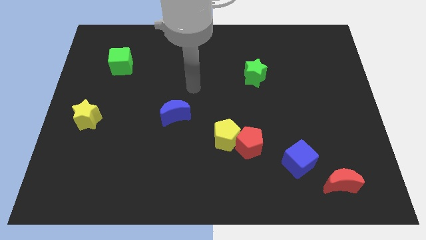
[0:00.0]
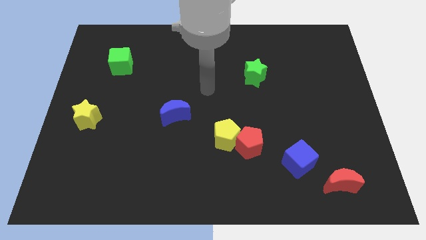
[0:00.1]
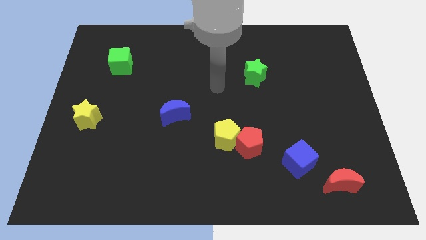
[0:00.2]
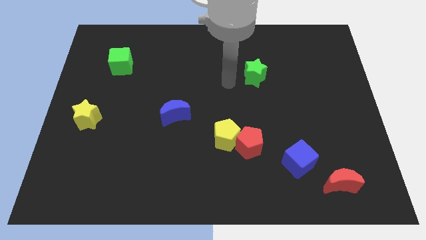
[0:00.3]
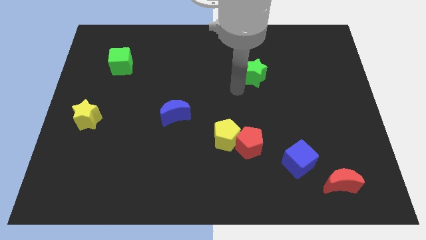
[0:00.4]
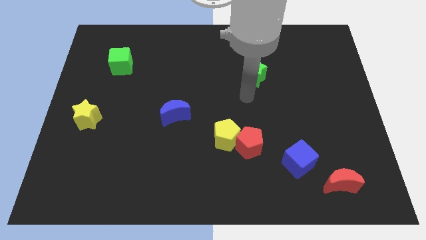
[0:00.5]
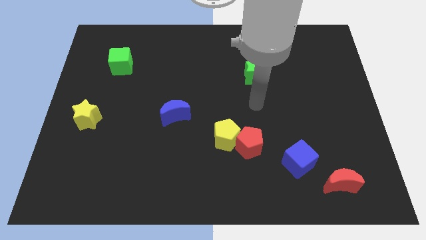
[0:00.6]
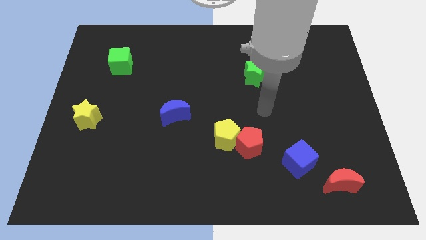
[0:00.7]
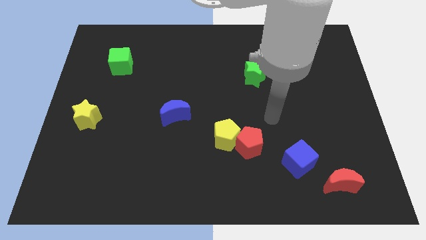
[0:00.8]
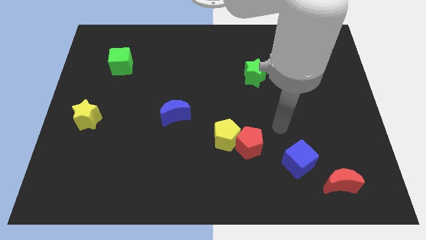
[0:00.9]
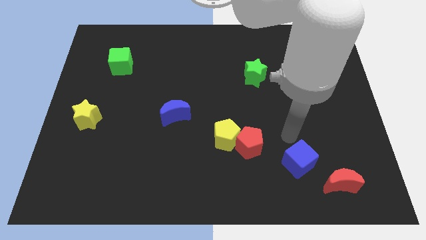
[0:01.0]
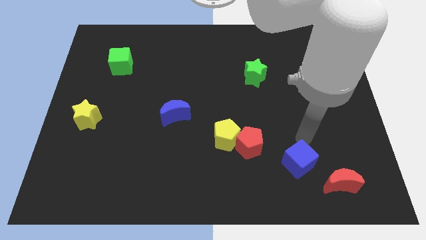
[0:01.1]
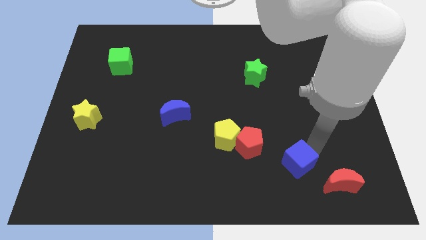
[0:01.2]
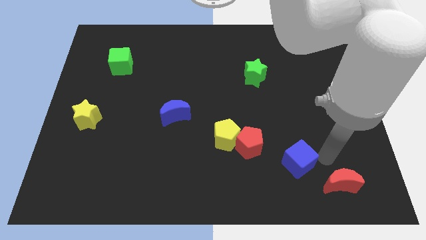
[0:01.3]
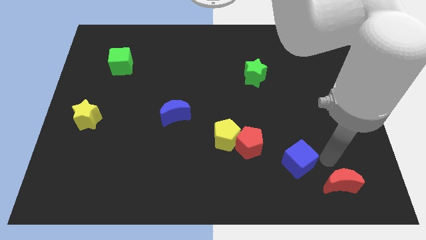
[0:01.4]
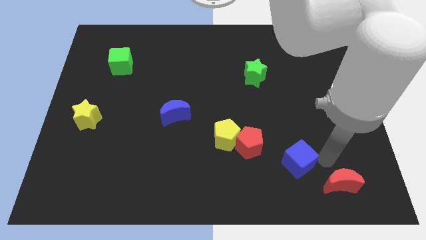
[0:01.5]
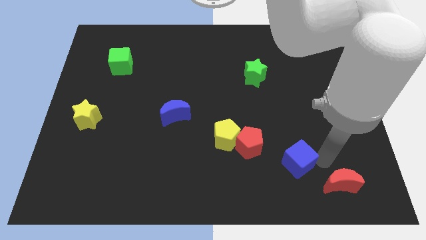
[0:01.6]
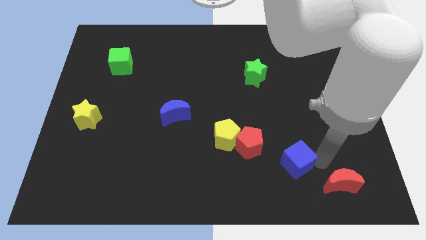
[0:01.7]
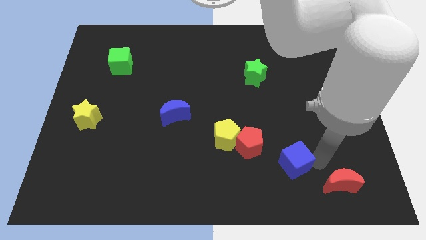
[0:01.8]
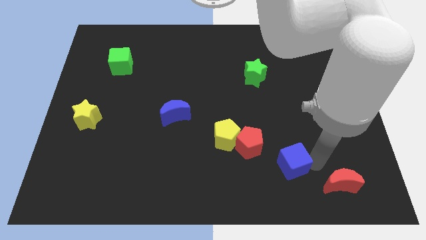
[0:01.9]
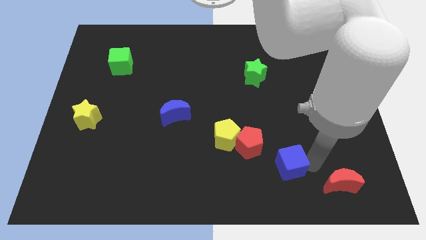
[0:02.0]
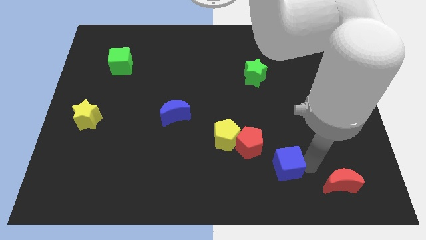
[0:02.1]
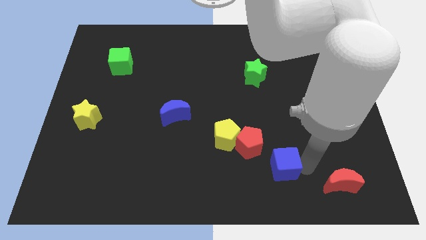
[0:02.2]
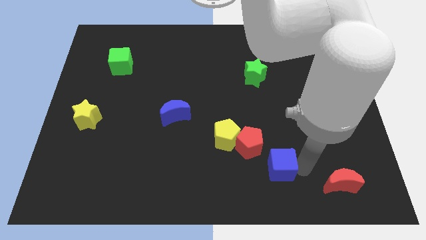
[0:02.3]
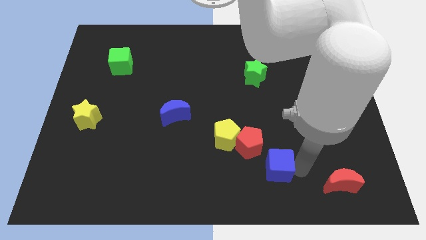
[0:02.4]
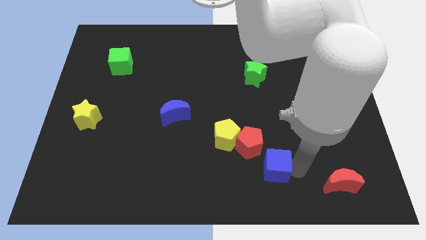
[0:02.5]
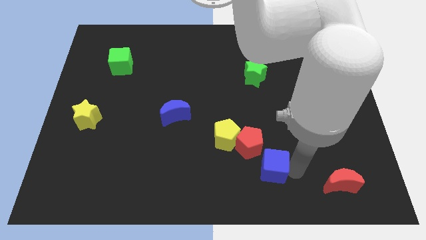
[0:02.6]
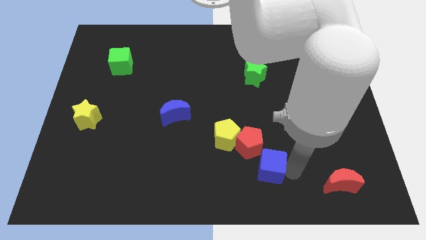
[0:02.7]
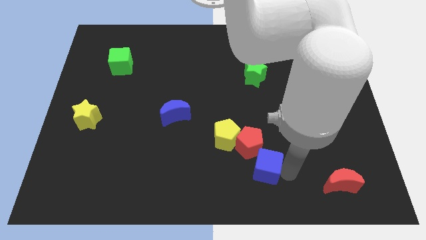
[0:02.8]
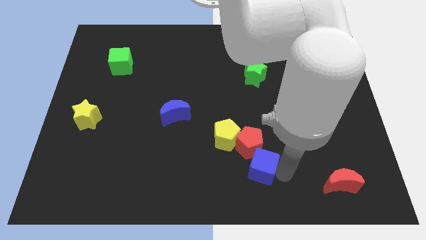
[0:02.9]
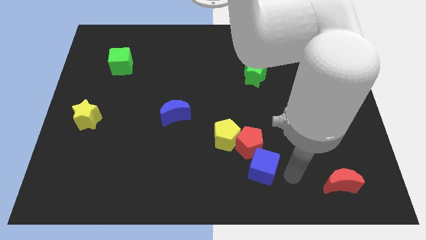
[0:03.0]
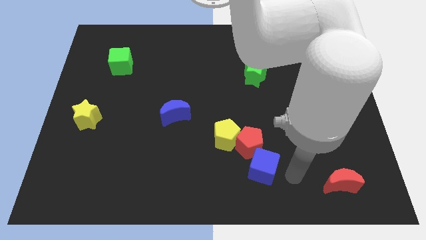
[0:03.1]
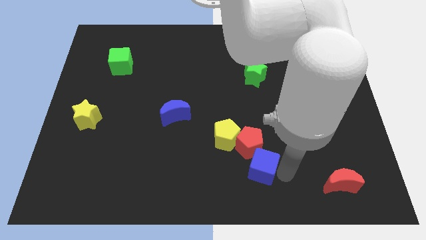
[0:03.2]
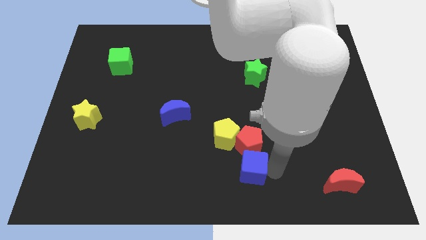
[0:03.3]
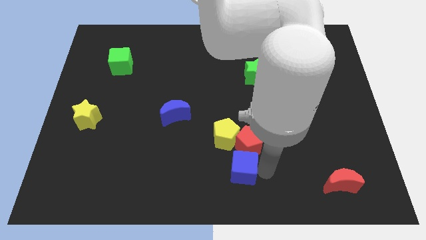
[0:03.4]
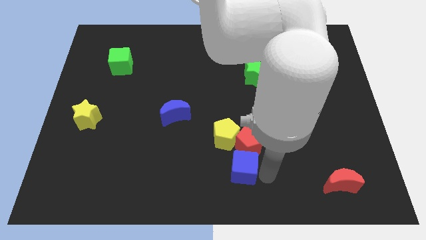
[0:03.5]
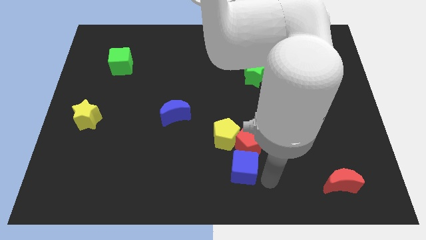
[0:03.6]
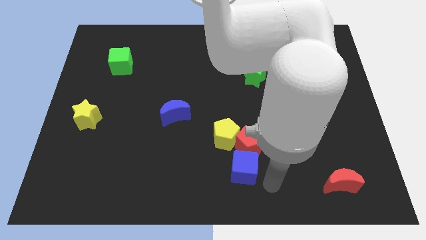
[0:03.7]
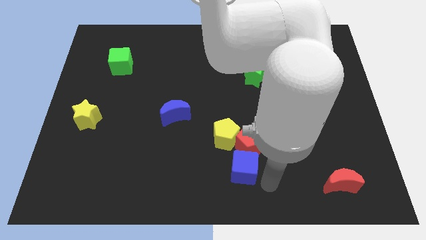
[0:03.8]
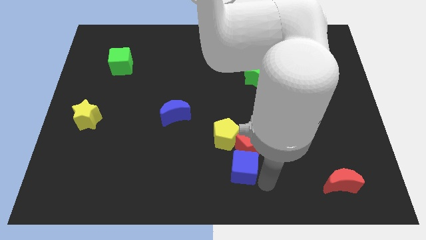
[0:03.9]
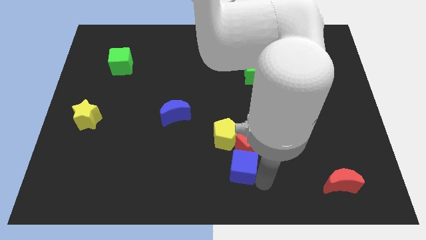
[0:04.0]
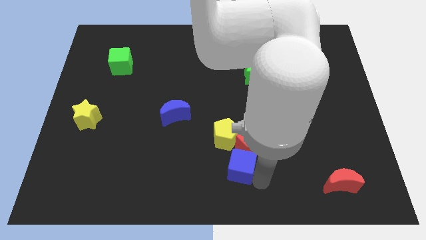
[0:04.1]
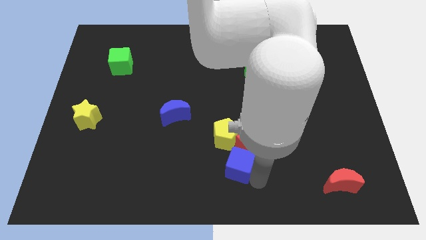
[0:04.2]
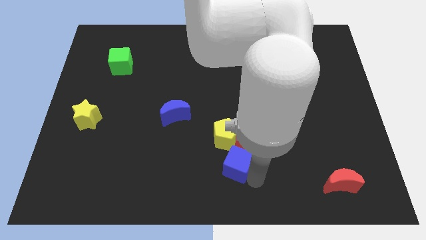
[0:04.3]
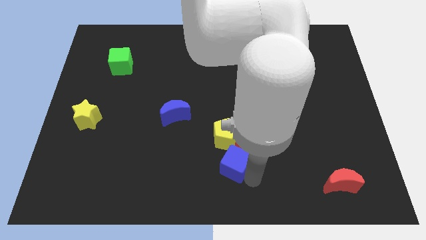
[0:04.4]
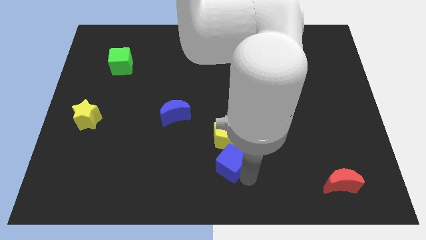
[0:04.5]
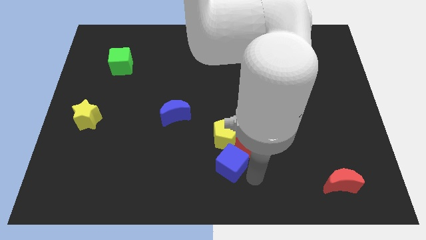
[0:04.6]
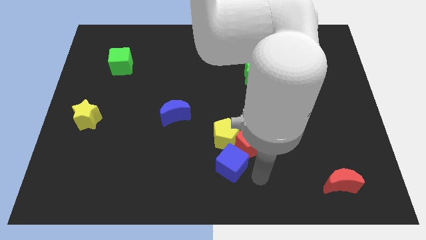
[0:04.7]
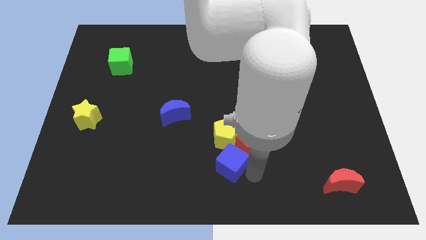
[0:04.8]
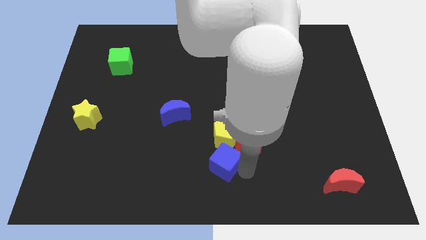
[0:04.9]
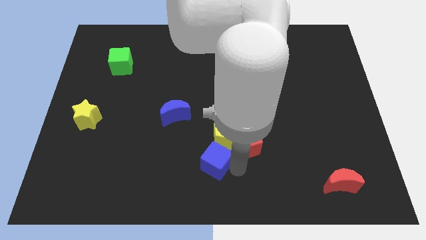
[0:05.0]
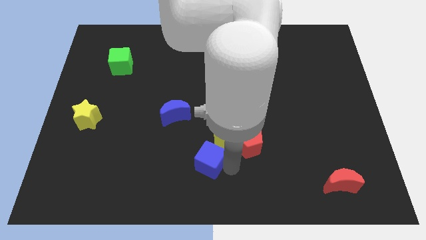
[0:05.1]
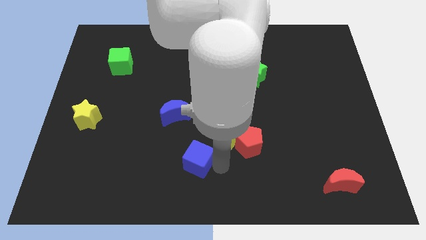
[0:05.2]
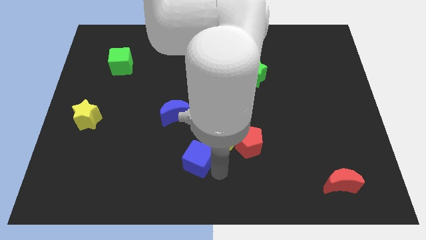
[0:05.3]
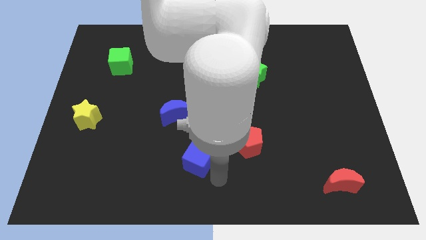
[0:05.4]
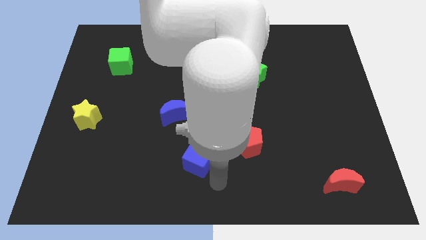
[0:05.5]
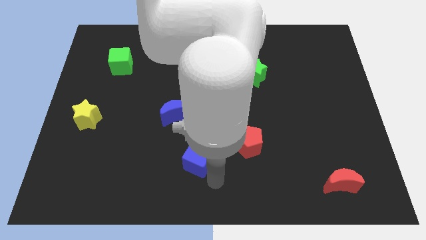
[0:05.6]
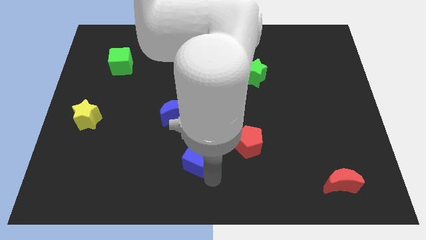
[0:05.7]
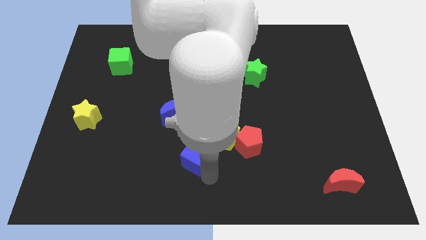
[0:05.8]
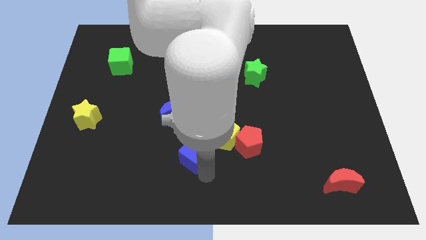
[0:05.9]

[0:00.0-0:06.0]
slide the blue cube just left of the yellow pentagon

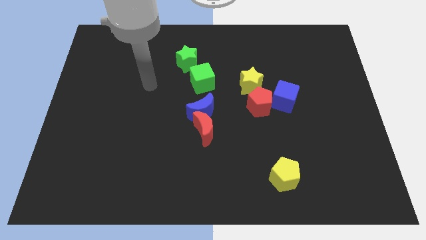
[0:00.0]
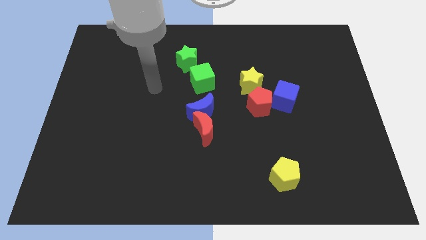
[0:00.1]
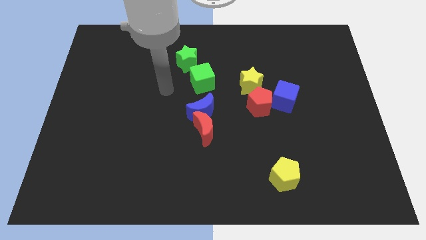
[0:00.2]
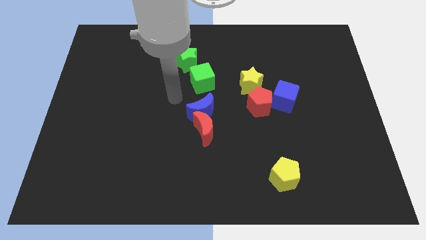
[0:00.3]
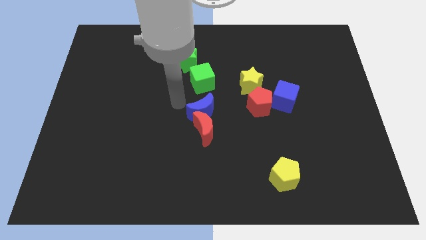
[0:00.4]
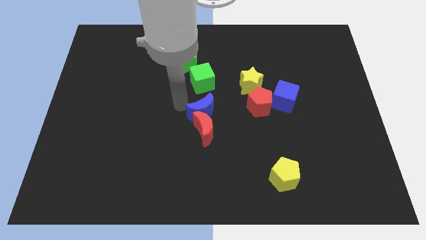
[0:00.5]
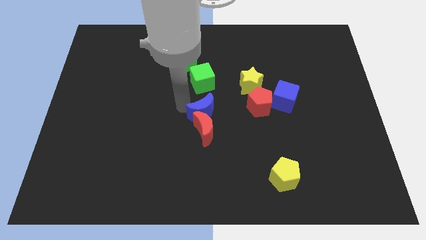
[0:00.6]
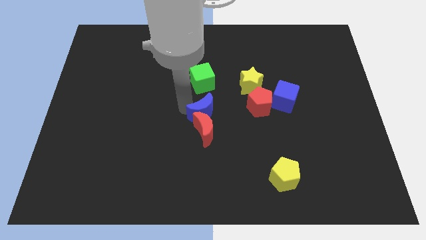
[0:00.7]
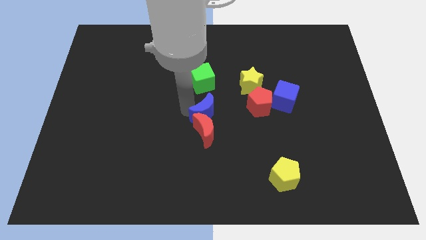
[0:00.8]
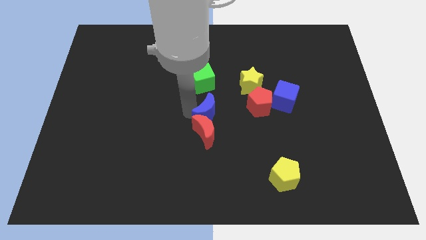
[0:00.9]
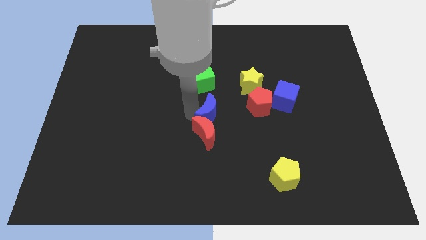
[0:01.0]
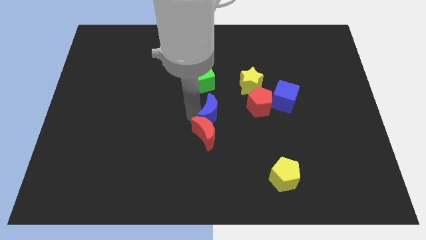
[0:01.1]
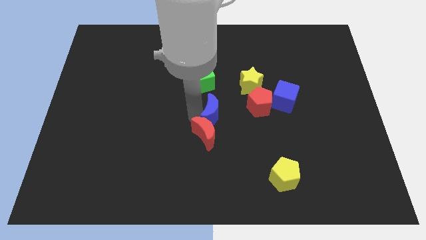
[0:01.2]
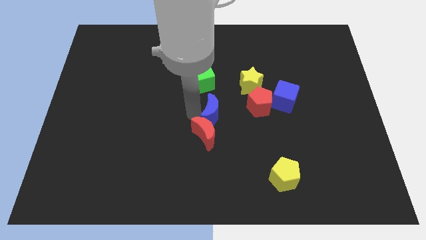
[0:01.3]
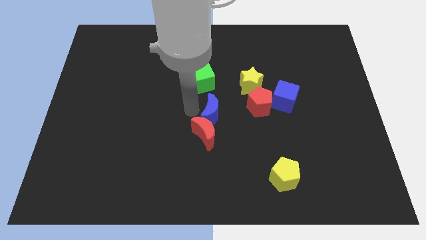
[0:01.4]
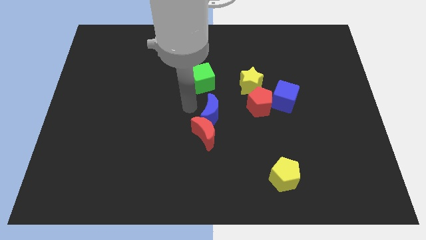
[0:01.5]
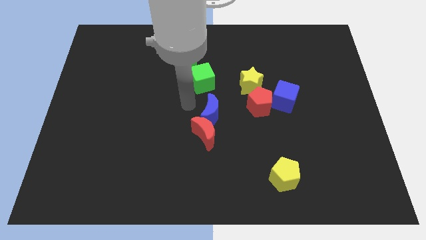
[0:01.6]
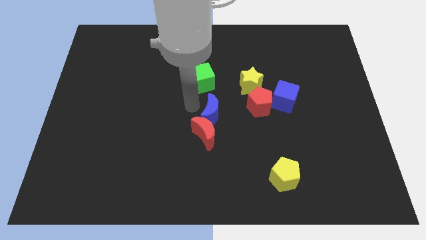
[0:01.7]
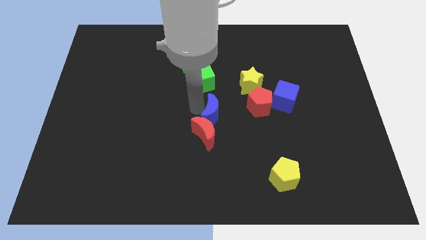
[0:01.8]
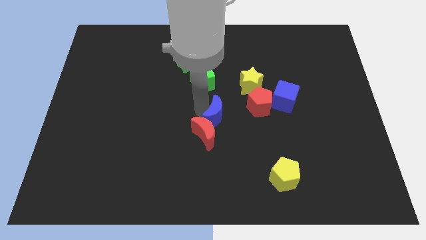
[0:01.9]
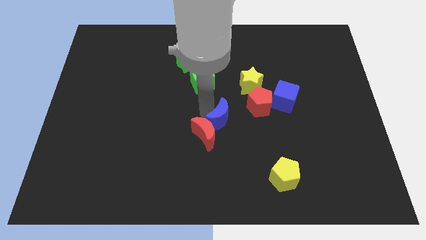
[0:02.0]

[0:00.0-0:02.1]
put the blue moon just right of the red moon
